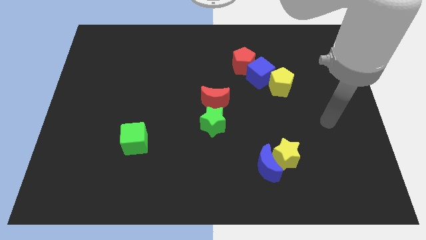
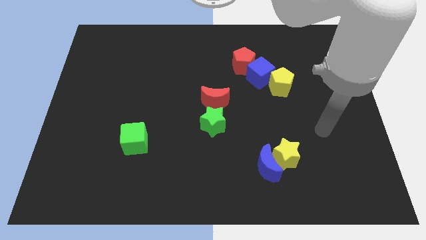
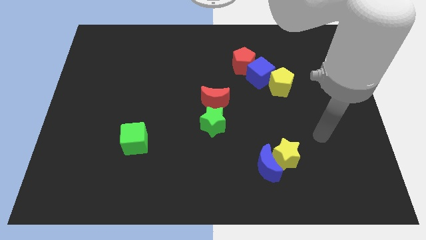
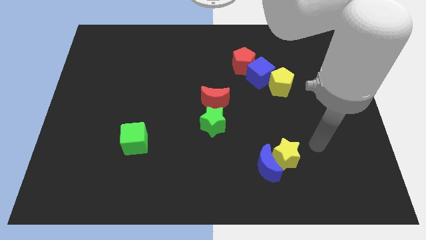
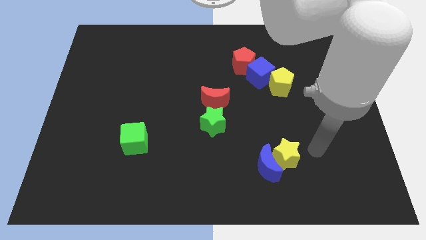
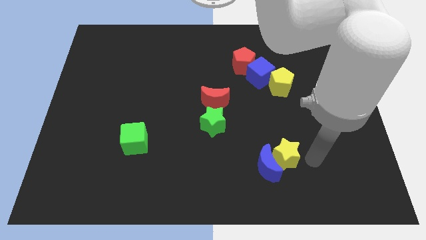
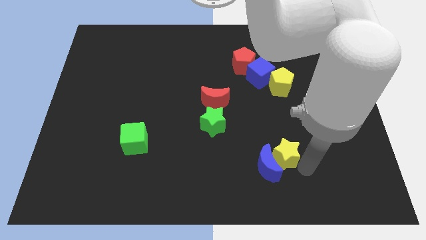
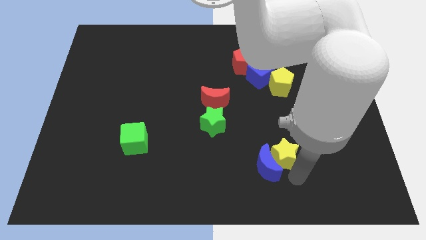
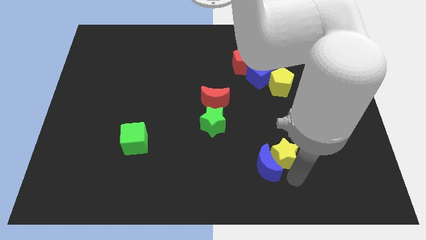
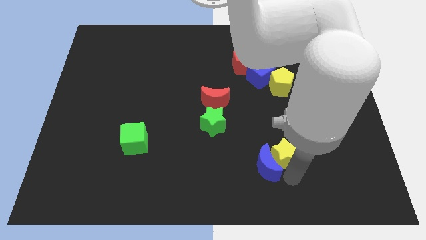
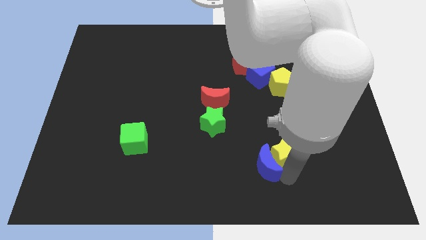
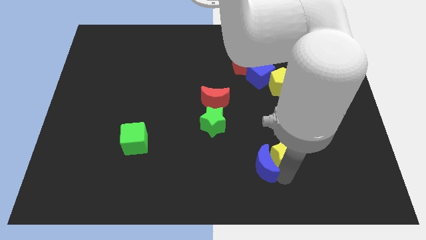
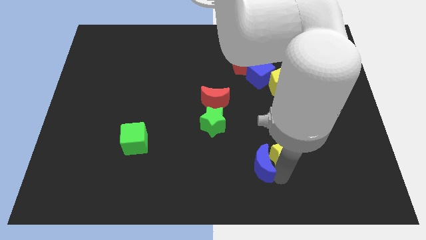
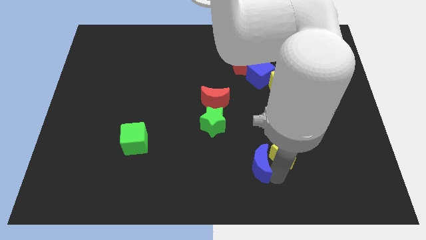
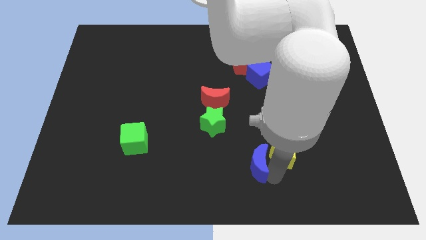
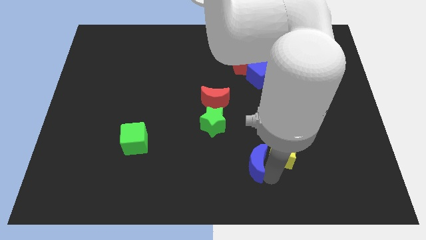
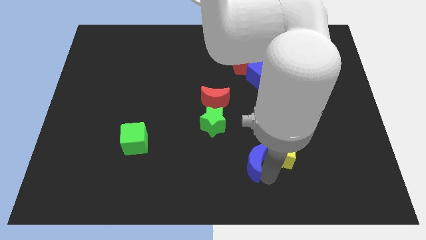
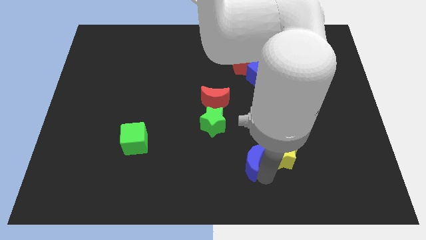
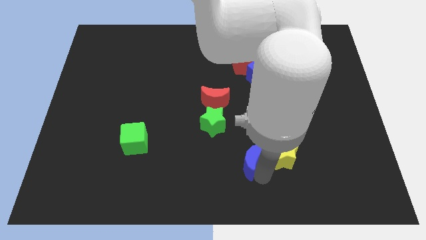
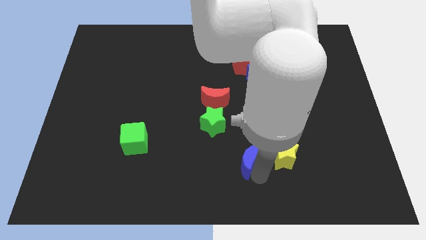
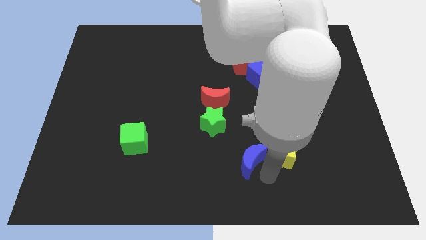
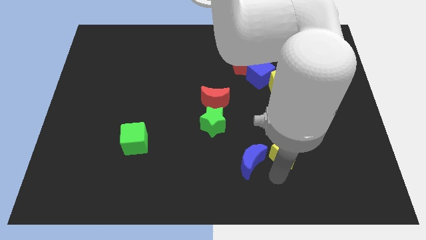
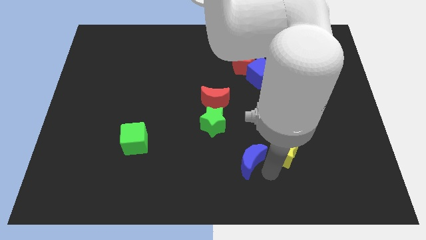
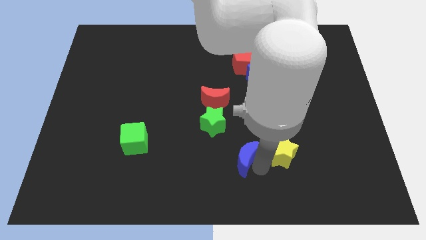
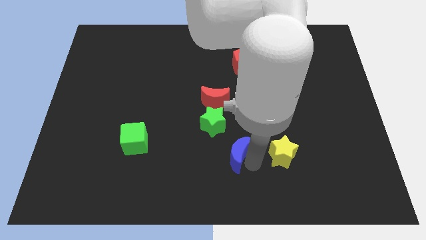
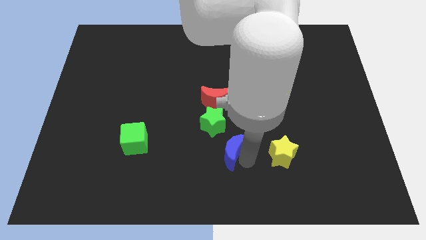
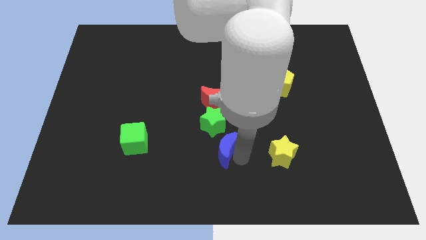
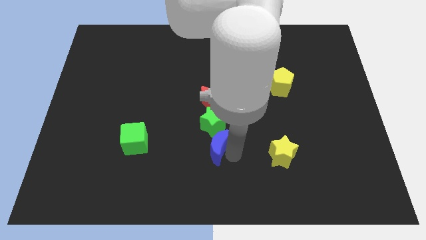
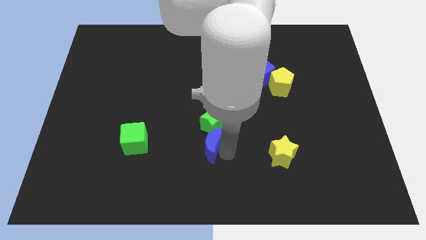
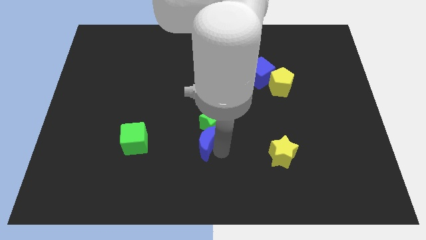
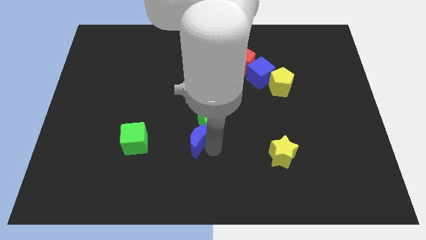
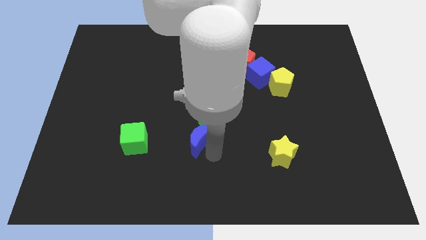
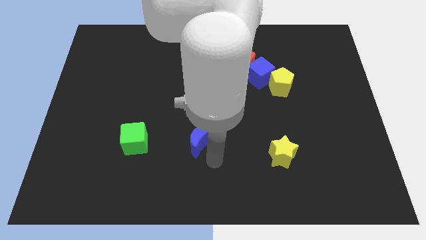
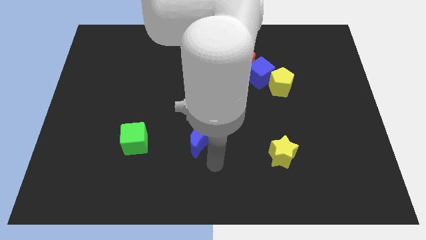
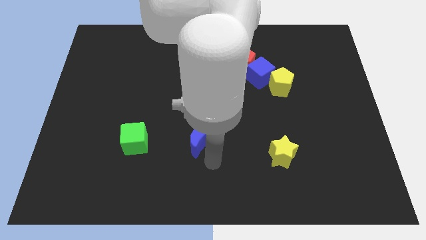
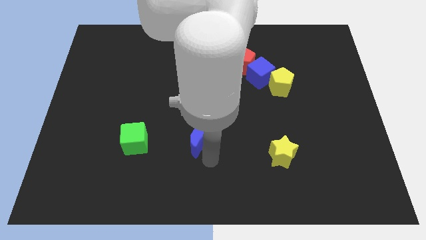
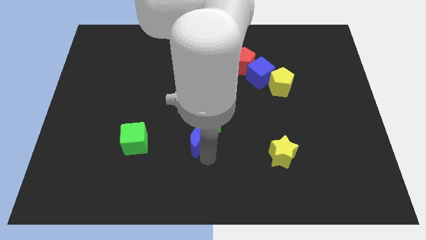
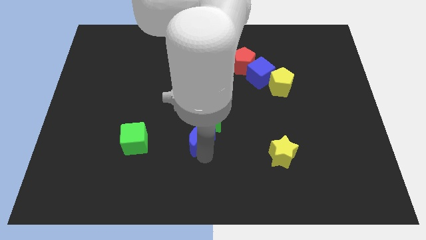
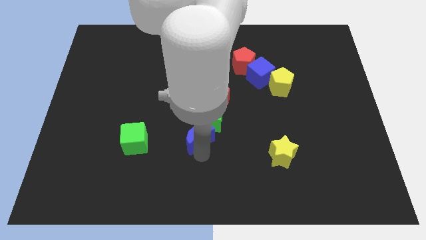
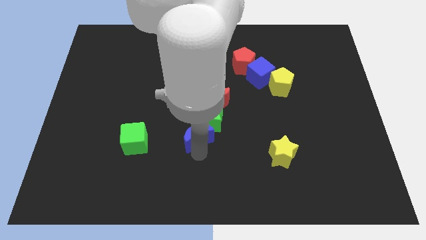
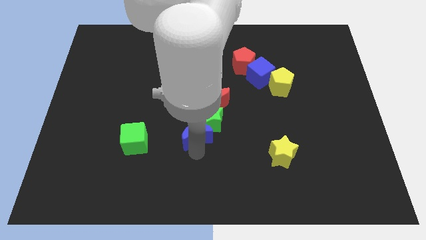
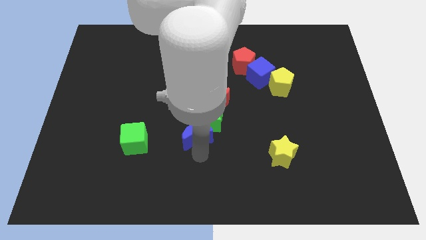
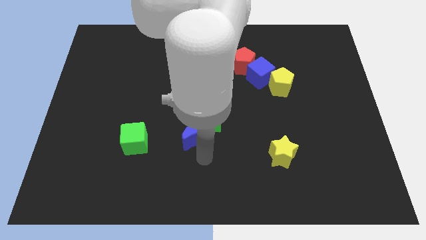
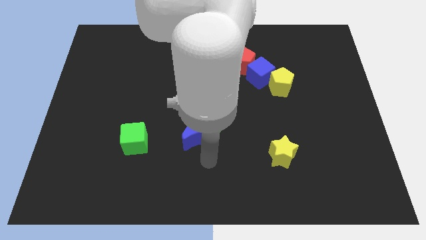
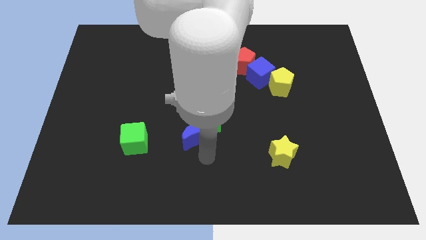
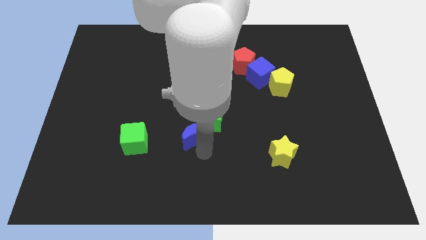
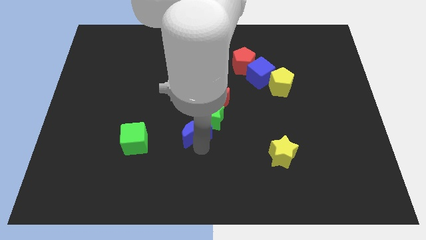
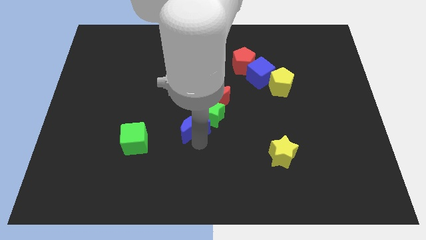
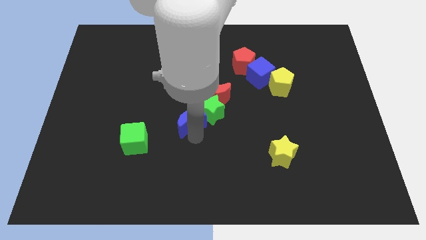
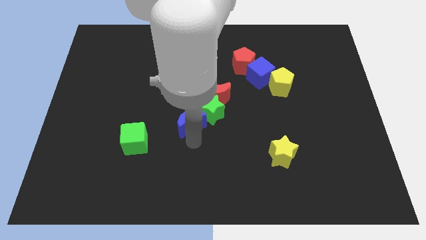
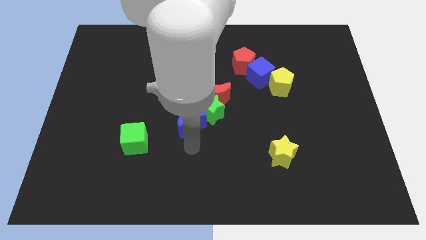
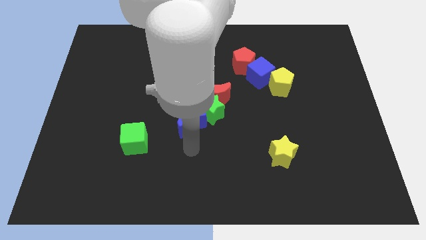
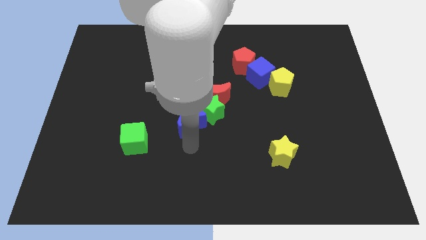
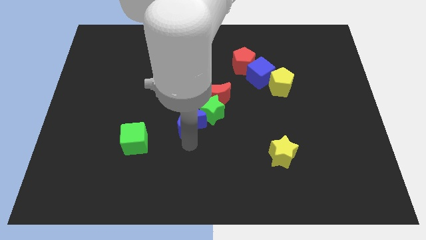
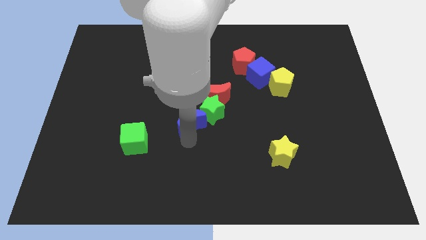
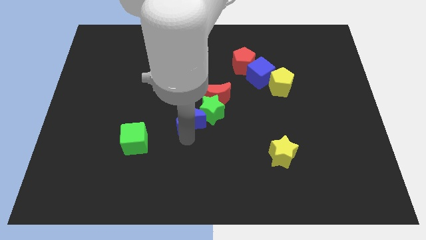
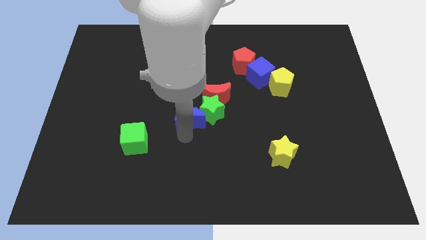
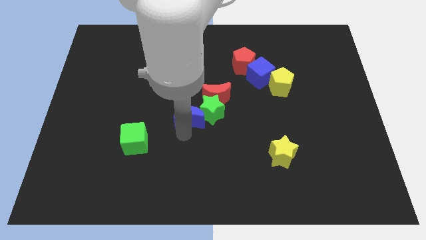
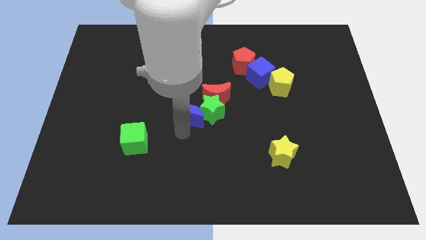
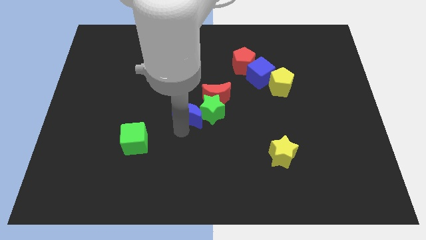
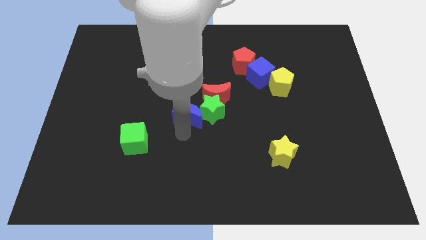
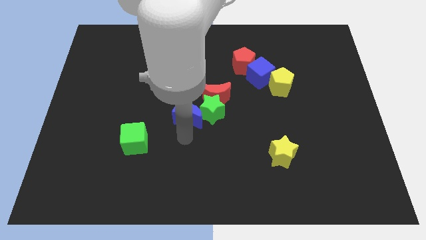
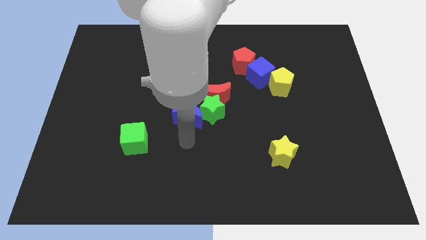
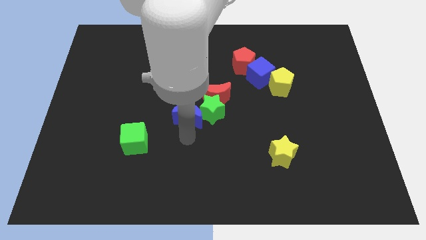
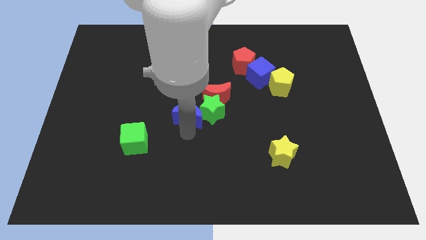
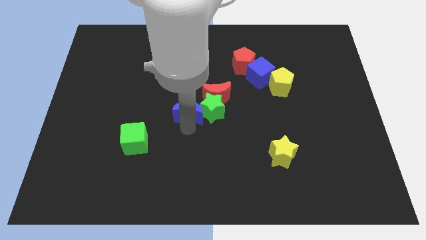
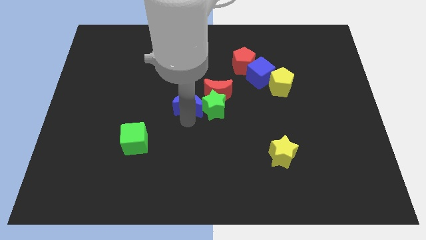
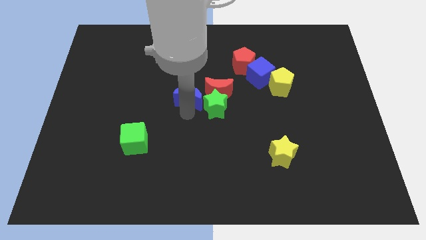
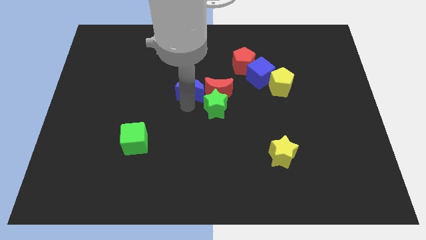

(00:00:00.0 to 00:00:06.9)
push the blue moon to the top left side of the red moon

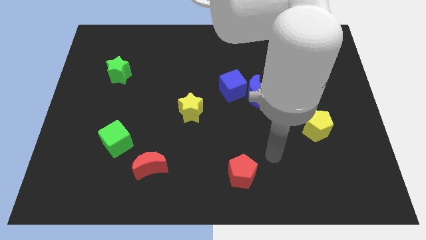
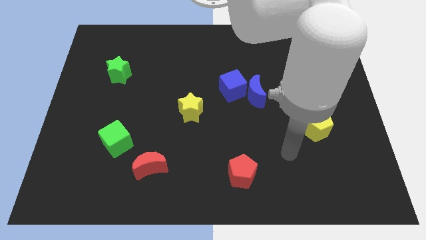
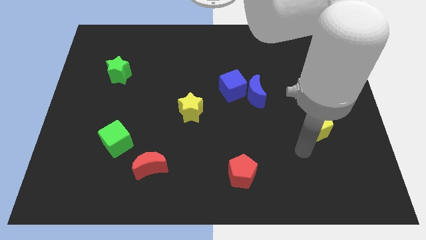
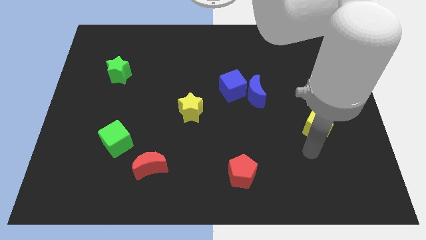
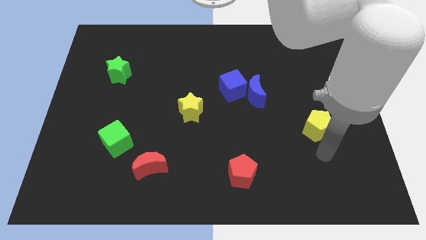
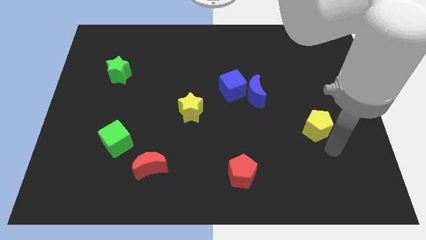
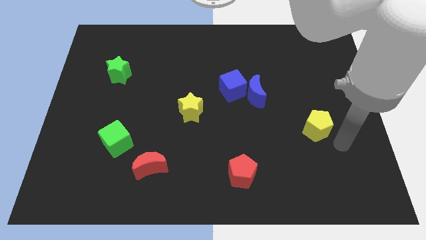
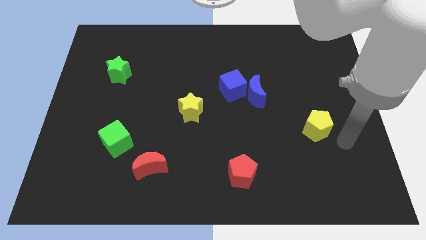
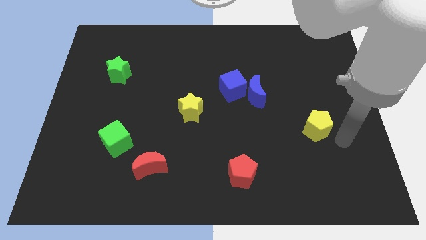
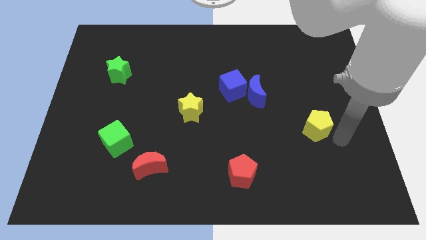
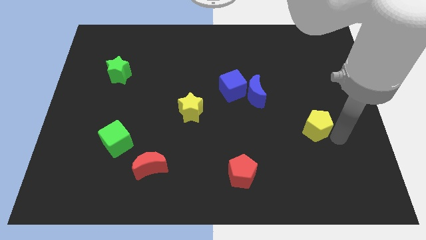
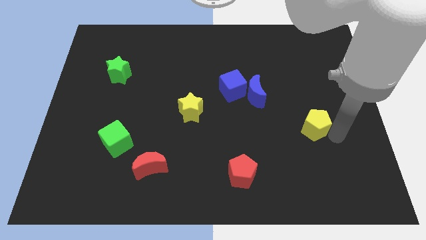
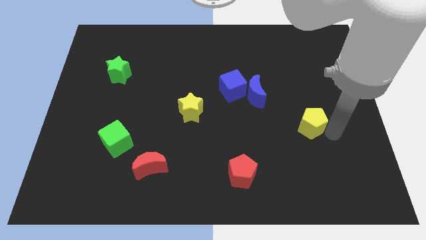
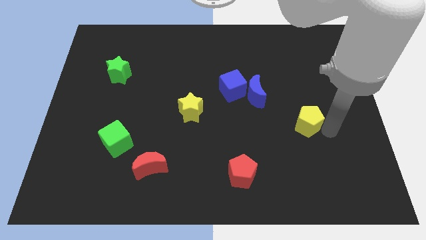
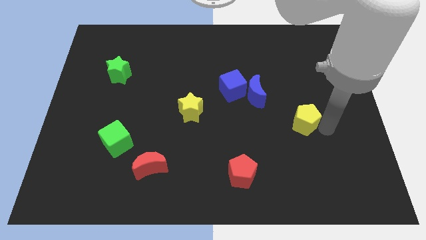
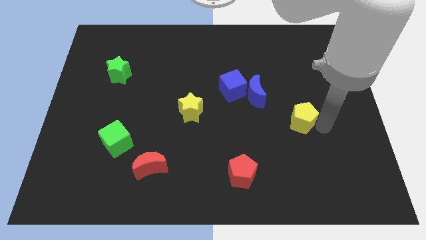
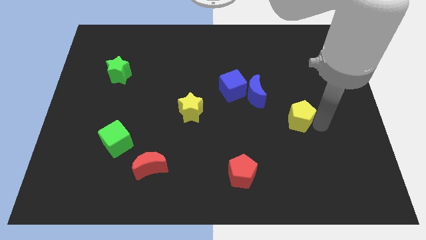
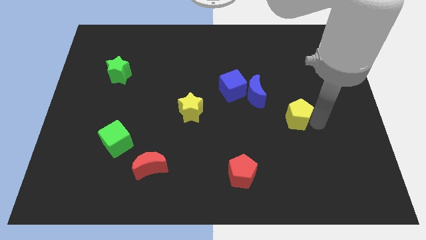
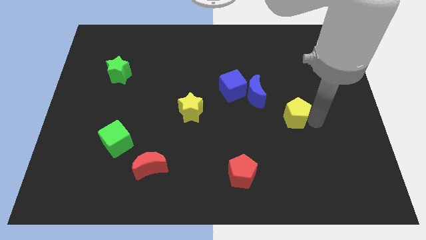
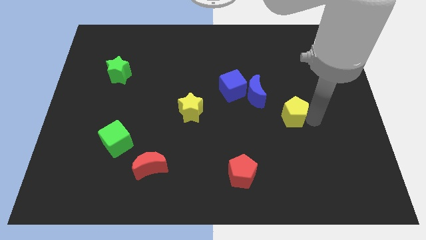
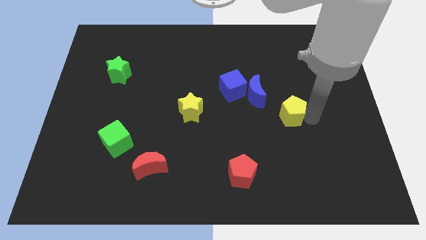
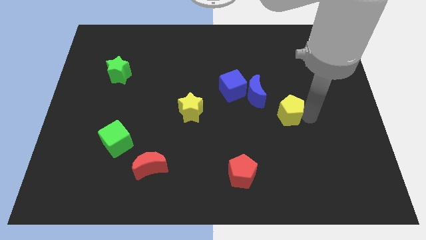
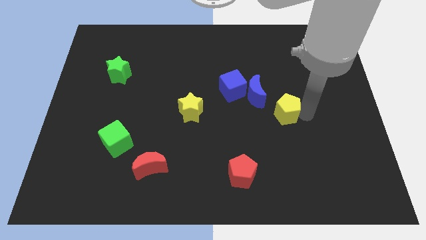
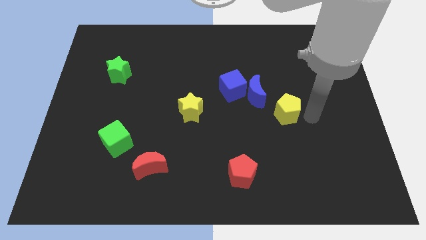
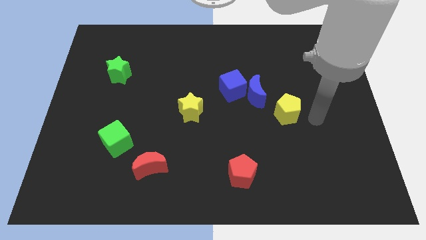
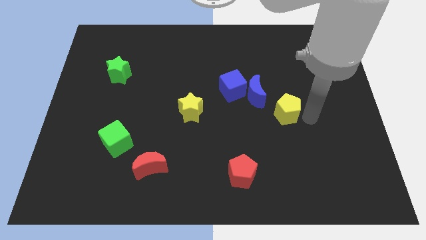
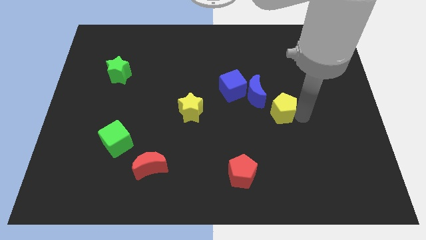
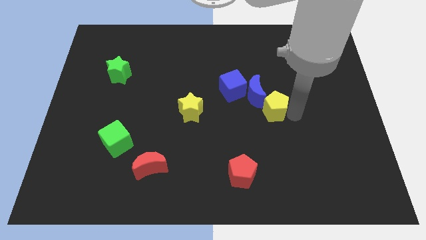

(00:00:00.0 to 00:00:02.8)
move the yellow pentagon to the bottom right of the blue cube
